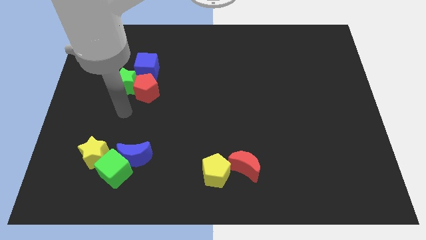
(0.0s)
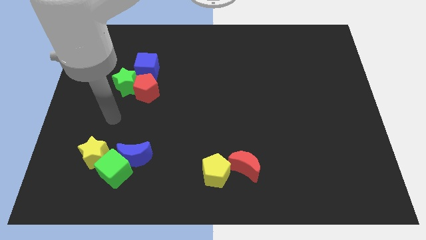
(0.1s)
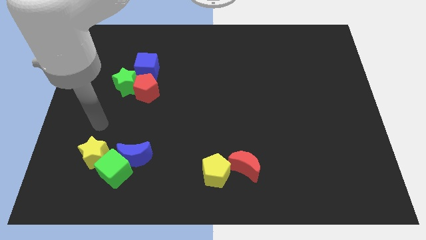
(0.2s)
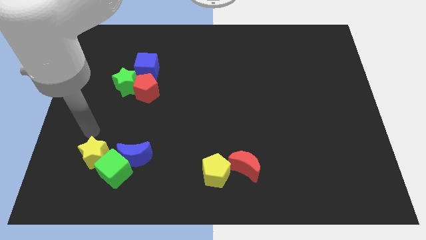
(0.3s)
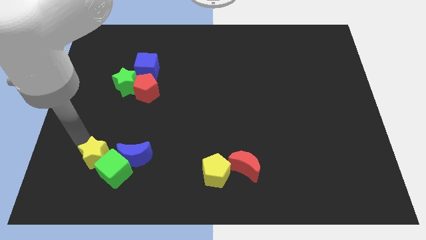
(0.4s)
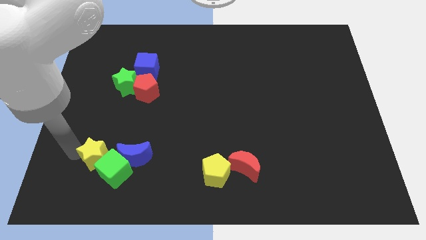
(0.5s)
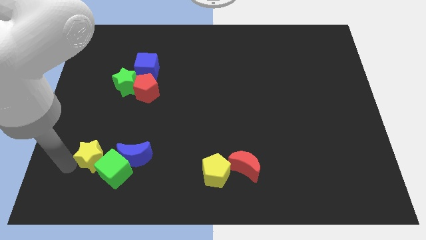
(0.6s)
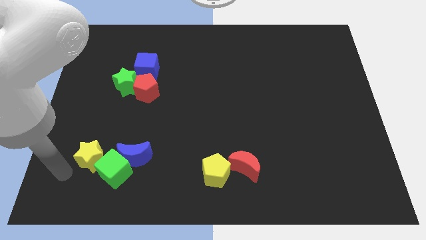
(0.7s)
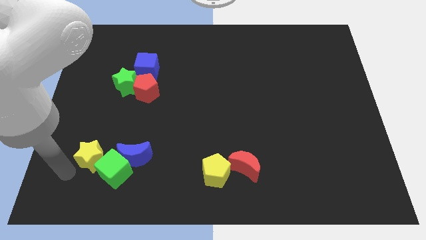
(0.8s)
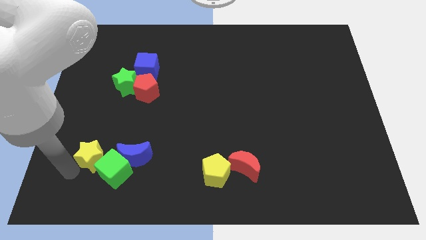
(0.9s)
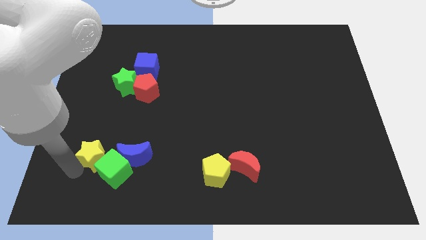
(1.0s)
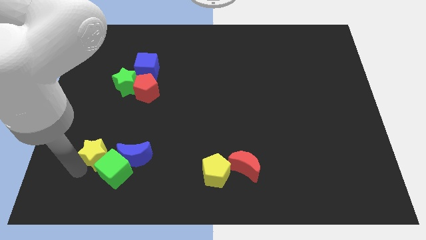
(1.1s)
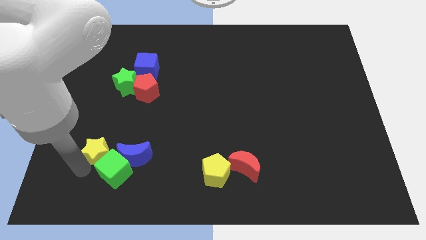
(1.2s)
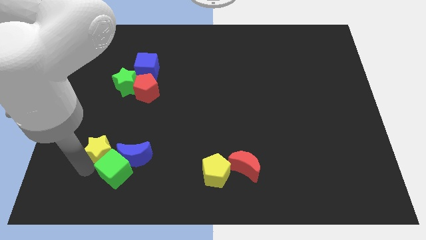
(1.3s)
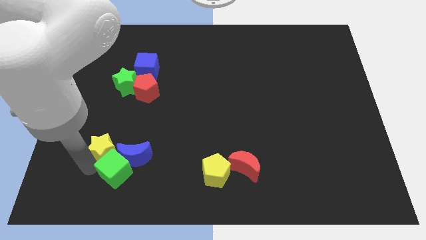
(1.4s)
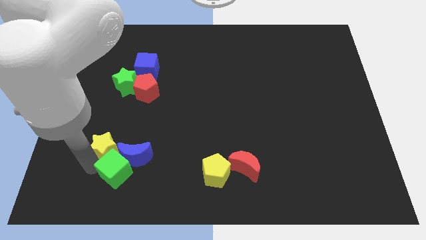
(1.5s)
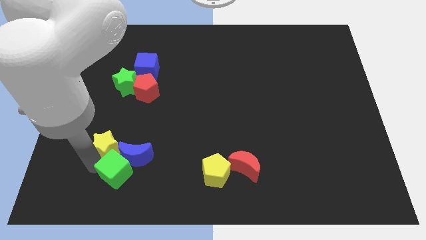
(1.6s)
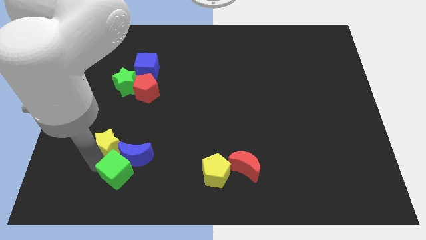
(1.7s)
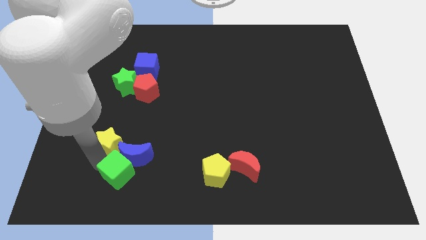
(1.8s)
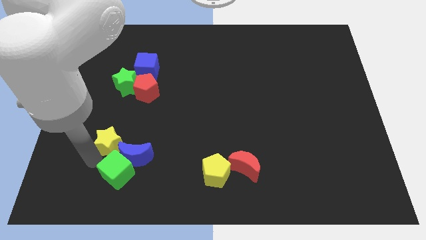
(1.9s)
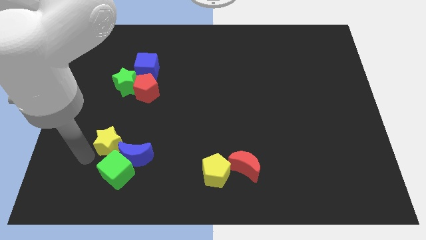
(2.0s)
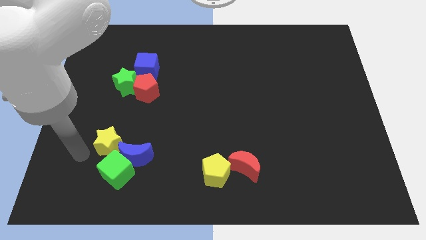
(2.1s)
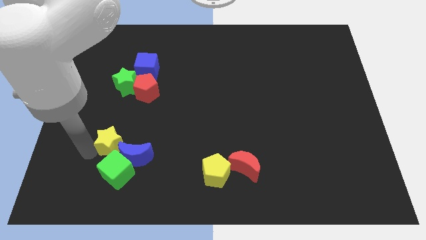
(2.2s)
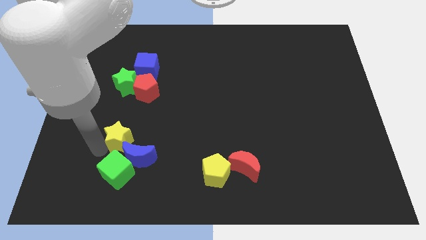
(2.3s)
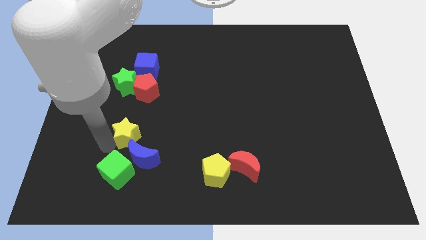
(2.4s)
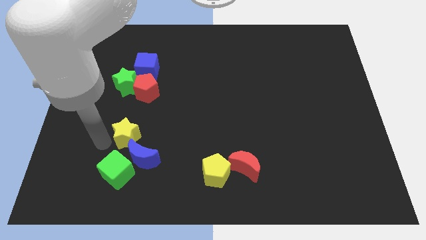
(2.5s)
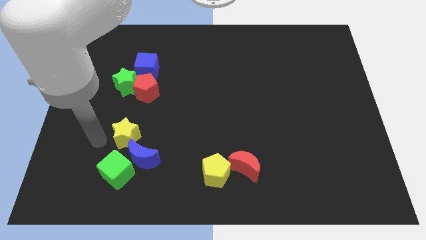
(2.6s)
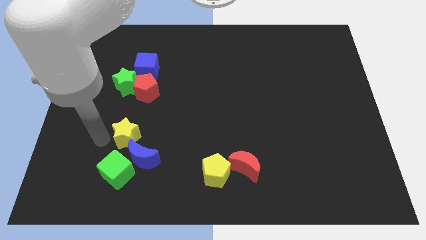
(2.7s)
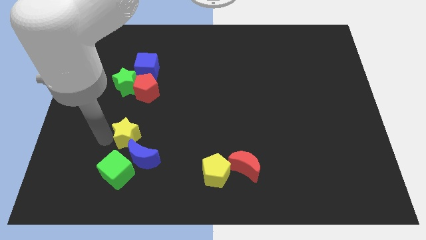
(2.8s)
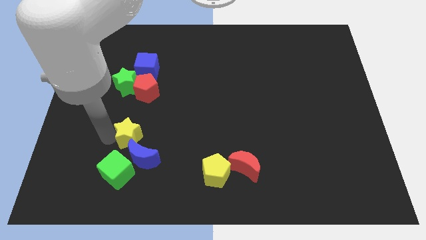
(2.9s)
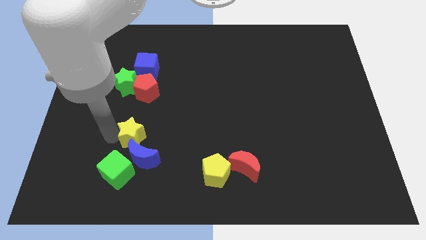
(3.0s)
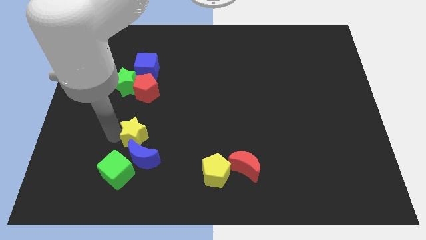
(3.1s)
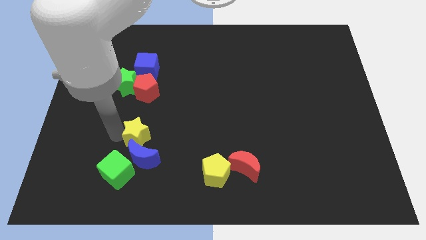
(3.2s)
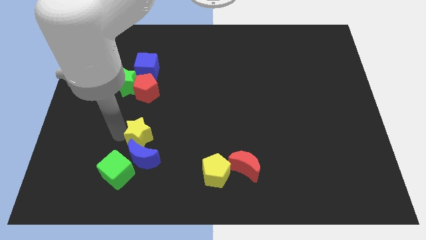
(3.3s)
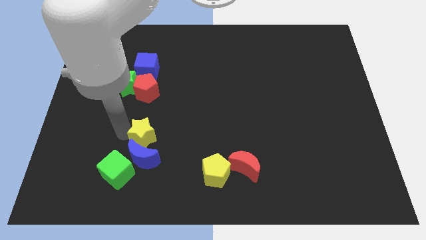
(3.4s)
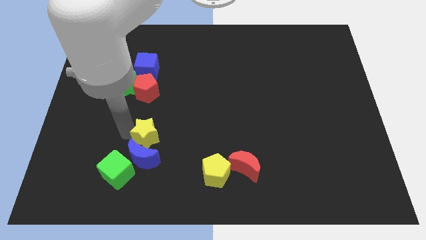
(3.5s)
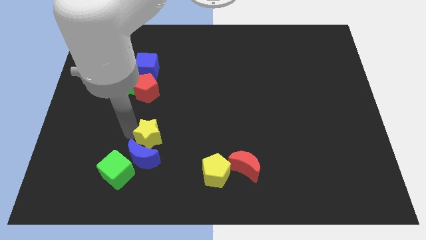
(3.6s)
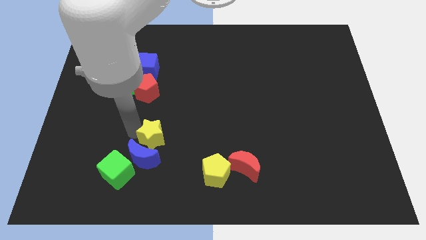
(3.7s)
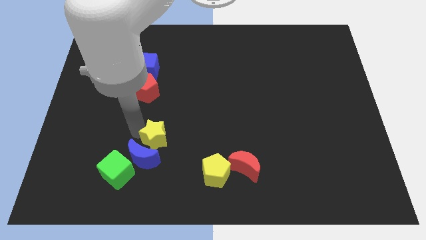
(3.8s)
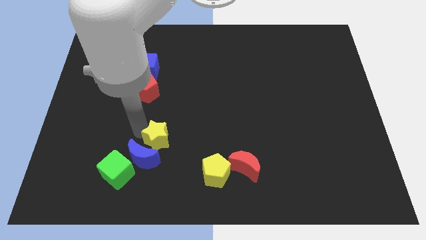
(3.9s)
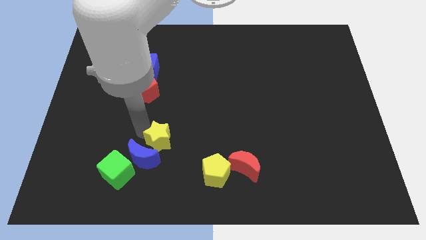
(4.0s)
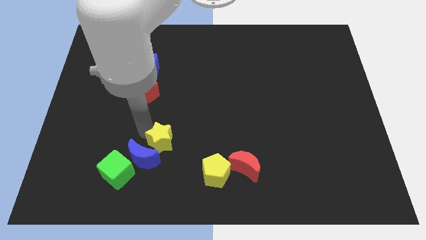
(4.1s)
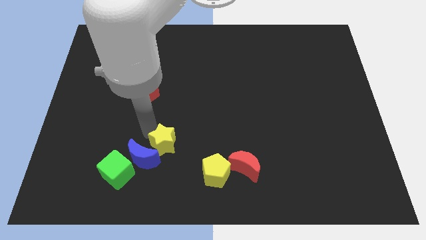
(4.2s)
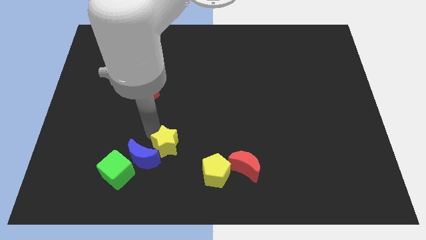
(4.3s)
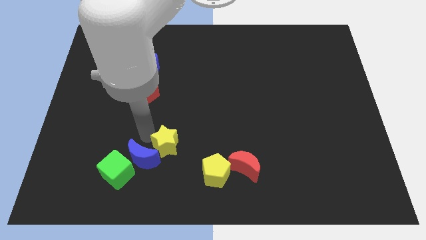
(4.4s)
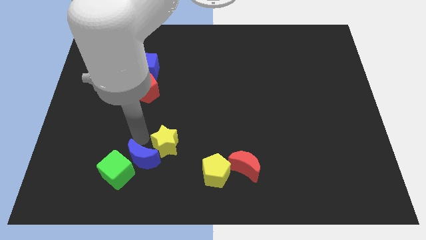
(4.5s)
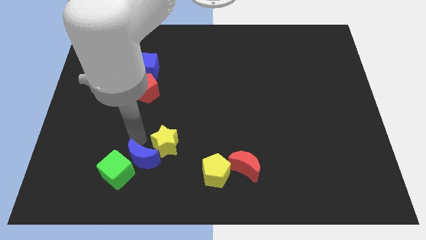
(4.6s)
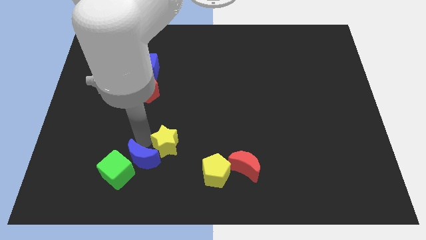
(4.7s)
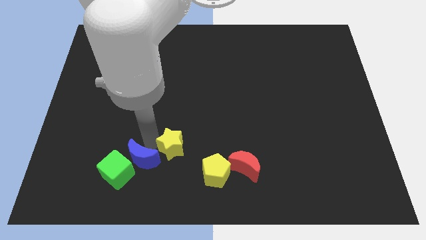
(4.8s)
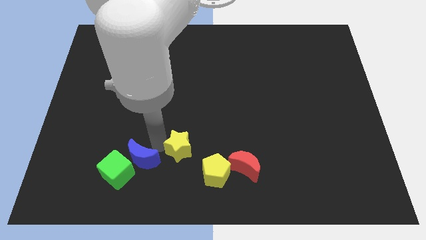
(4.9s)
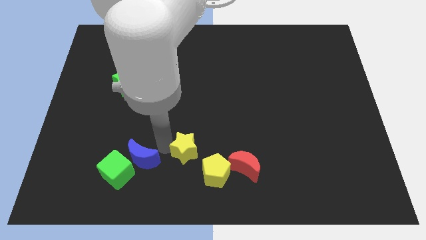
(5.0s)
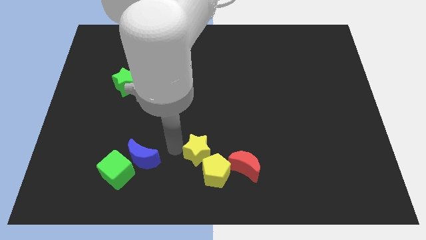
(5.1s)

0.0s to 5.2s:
put the yellow star close to the yellow pentagon

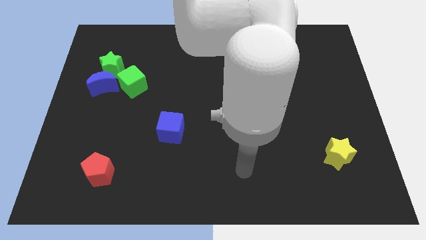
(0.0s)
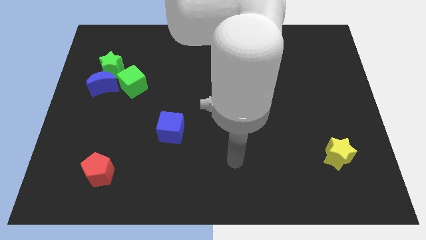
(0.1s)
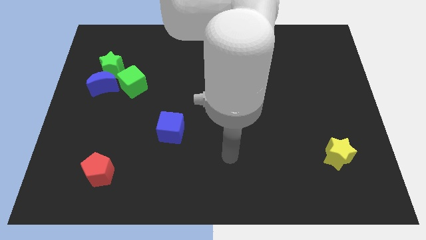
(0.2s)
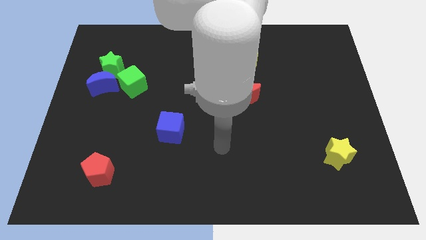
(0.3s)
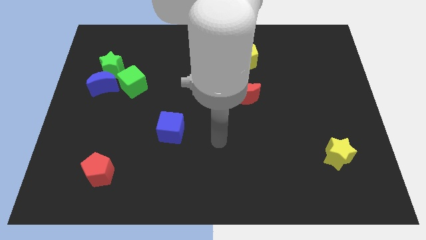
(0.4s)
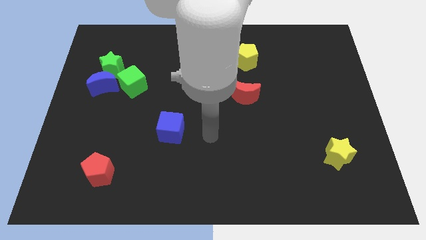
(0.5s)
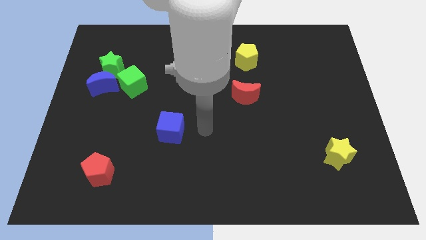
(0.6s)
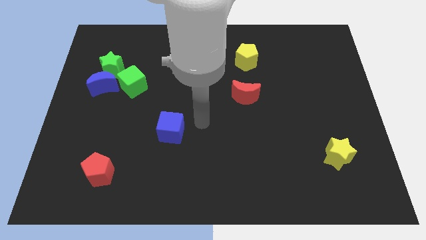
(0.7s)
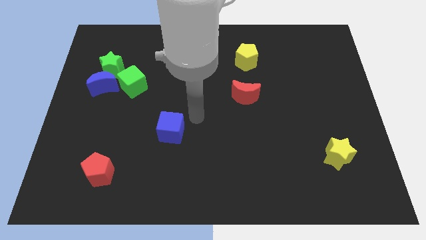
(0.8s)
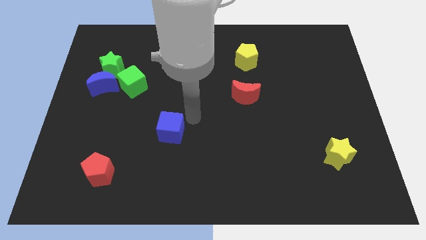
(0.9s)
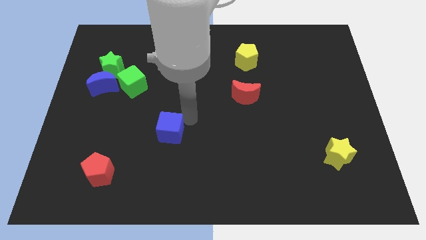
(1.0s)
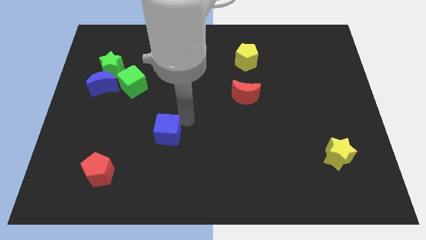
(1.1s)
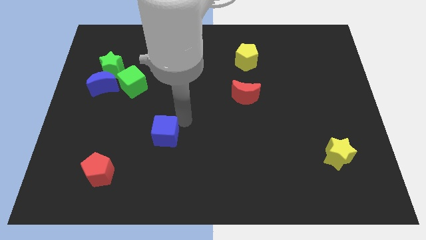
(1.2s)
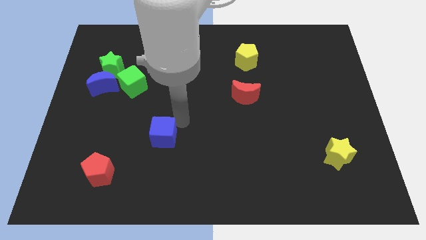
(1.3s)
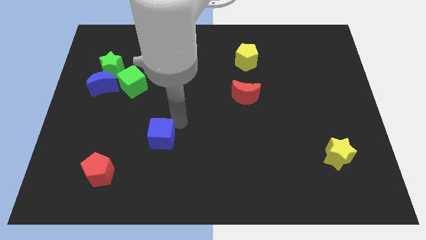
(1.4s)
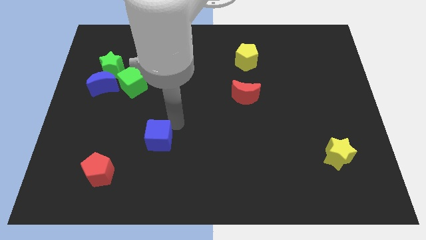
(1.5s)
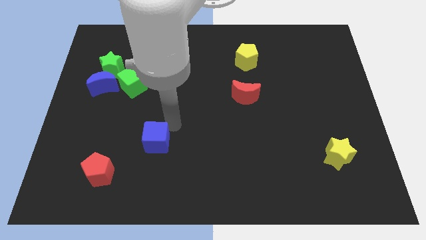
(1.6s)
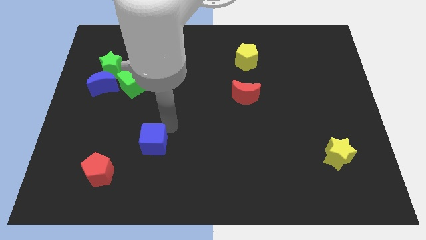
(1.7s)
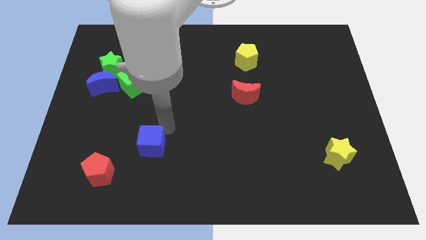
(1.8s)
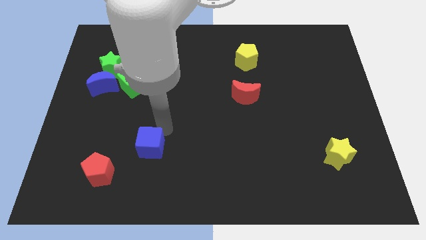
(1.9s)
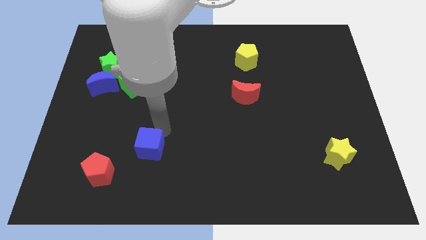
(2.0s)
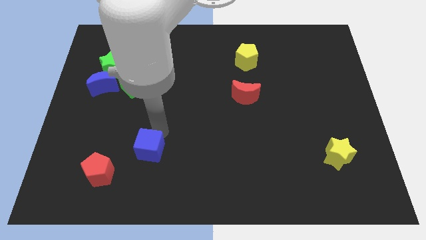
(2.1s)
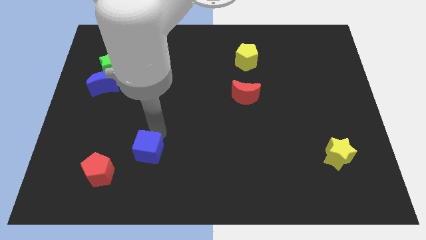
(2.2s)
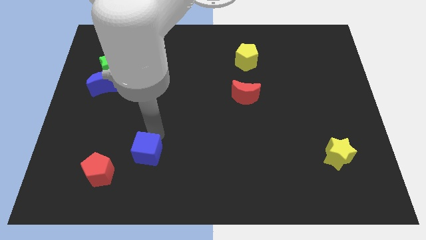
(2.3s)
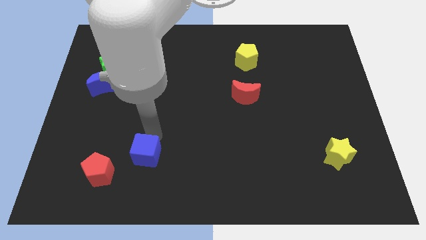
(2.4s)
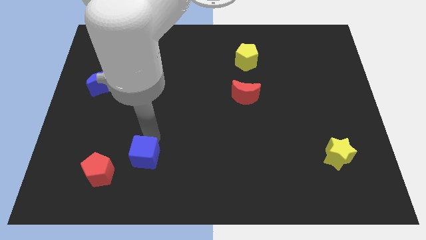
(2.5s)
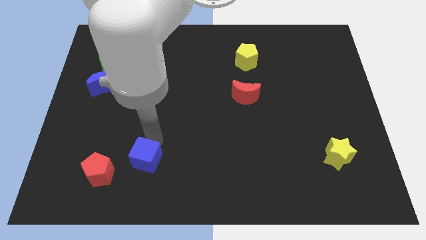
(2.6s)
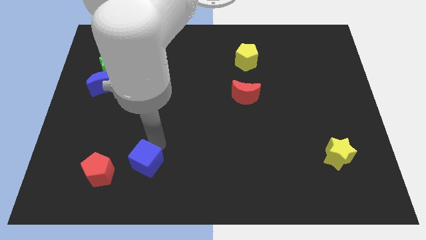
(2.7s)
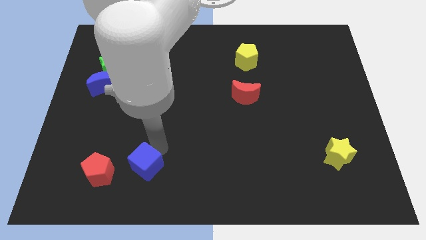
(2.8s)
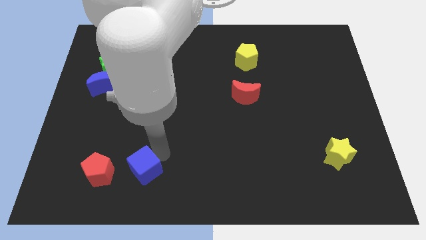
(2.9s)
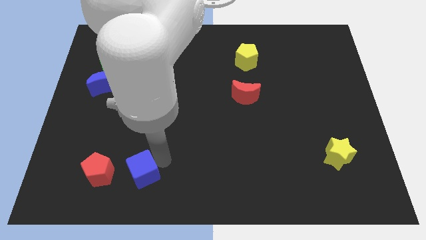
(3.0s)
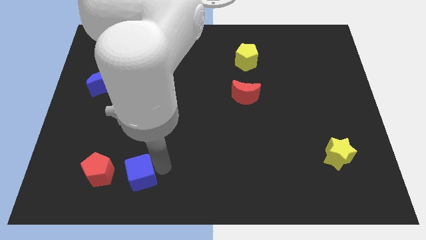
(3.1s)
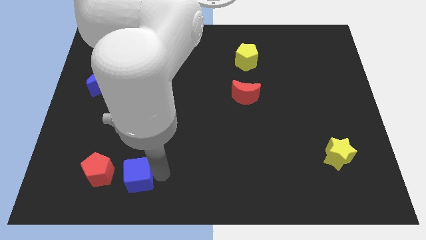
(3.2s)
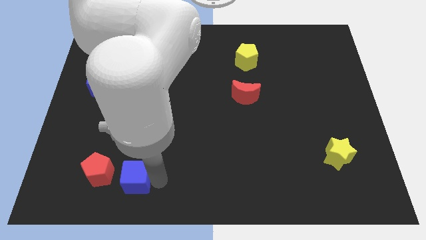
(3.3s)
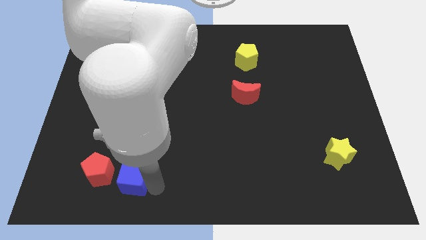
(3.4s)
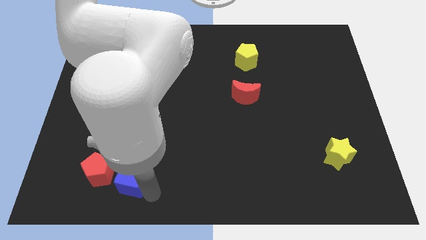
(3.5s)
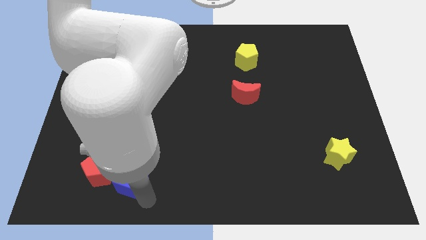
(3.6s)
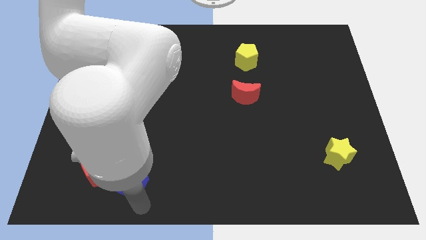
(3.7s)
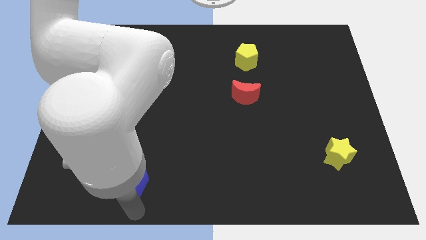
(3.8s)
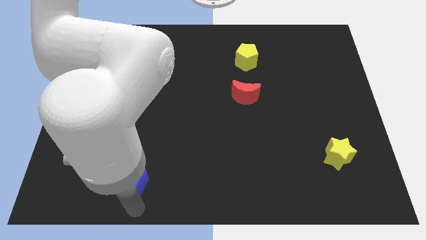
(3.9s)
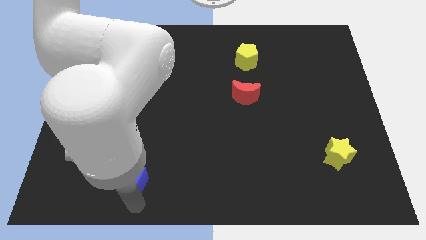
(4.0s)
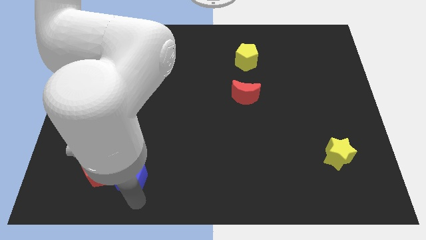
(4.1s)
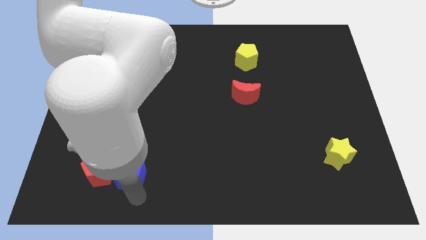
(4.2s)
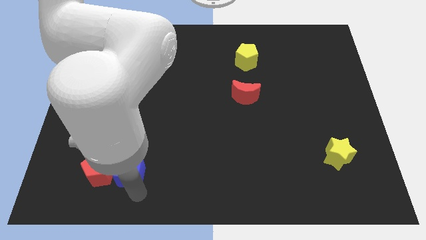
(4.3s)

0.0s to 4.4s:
put the blue cube to the red pentagon
